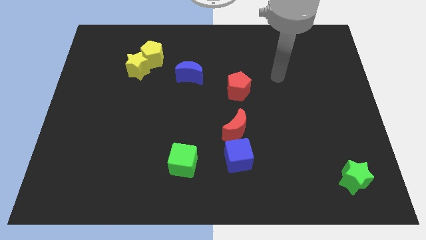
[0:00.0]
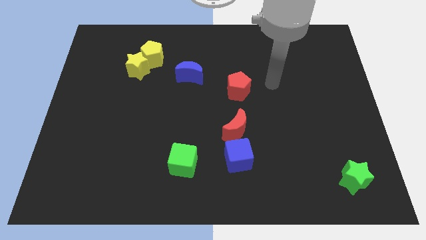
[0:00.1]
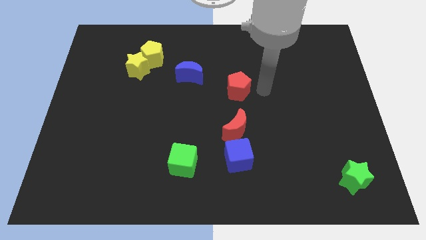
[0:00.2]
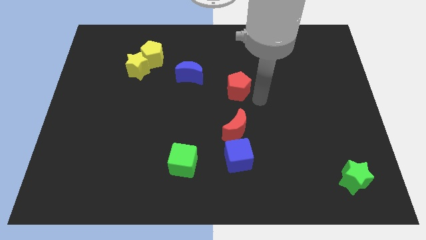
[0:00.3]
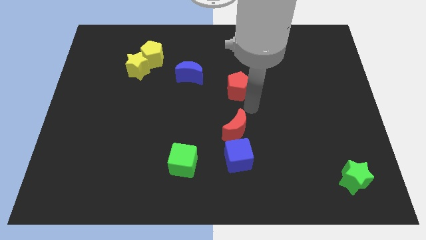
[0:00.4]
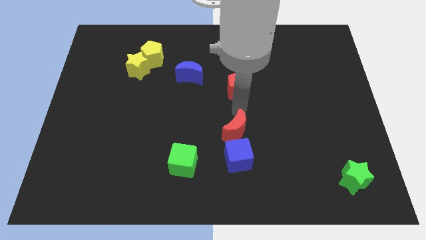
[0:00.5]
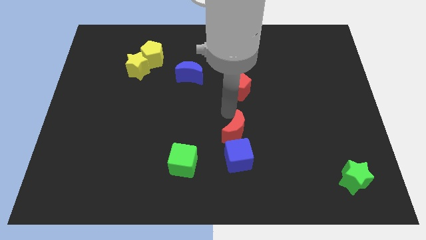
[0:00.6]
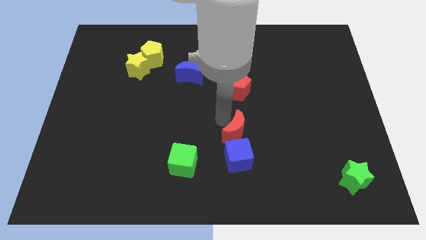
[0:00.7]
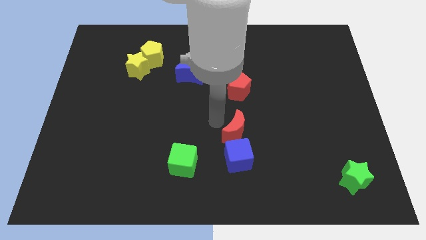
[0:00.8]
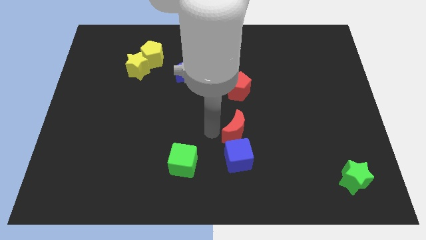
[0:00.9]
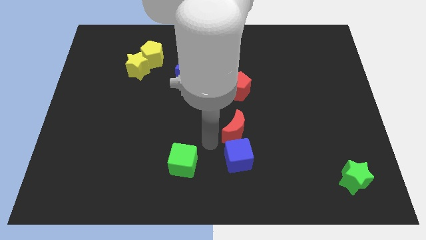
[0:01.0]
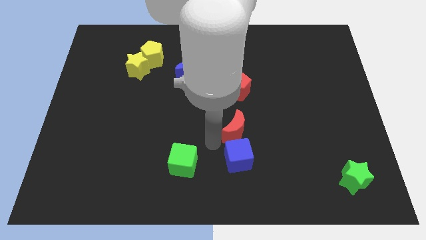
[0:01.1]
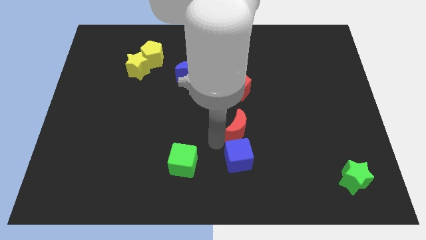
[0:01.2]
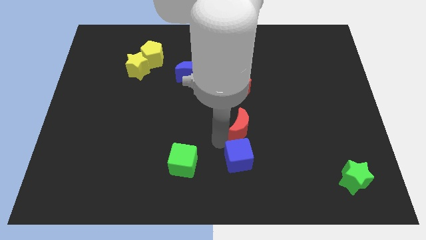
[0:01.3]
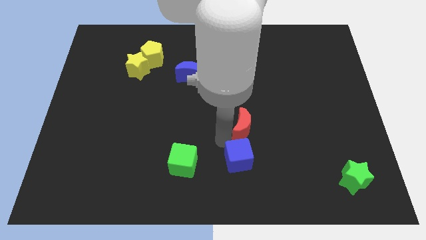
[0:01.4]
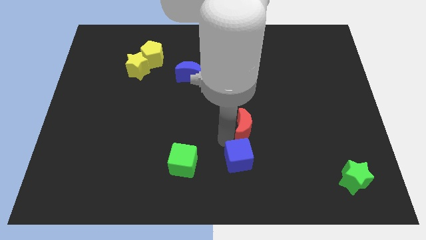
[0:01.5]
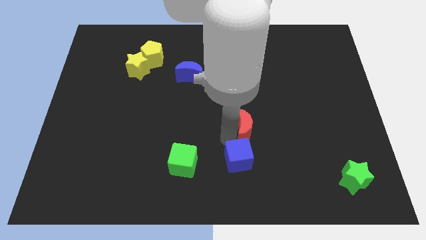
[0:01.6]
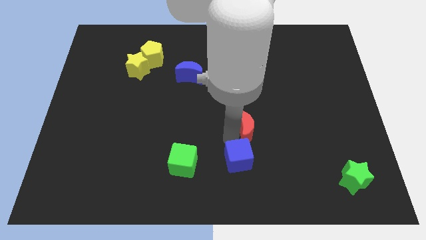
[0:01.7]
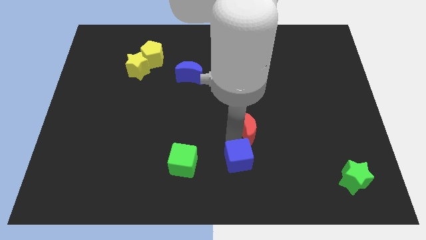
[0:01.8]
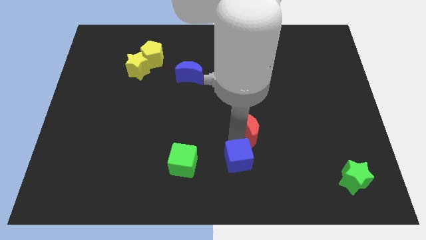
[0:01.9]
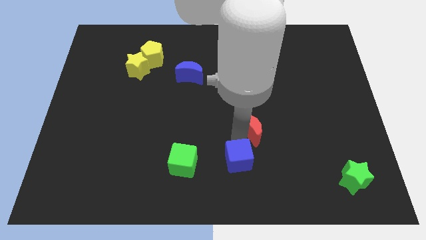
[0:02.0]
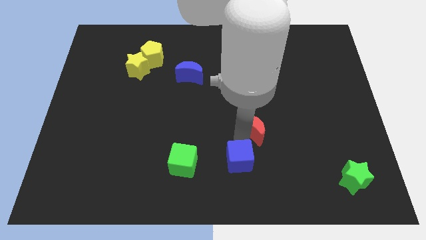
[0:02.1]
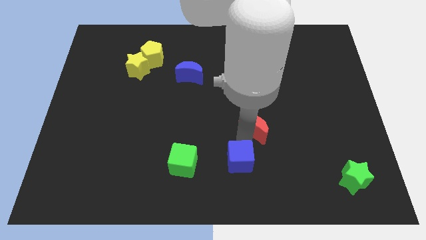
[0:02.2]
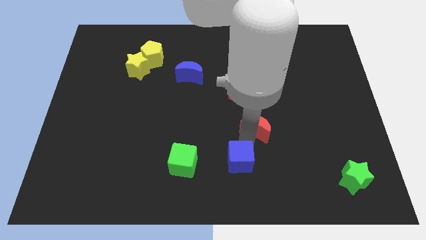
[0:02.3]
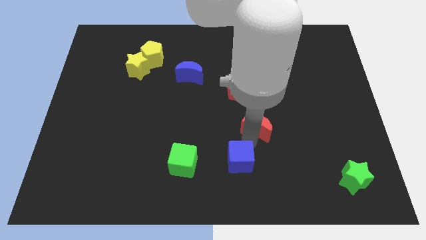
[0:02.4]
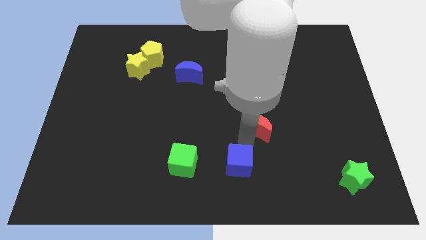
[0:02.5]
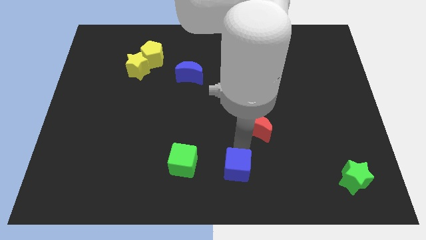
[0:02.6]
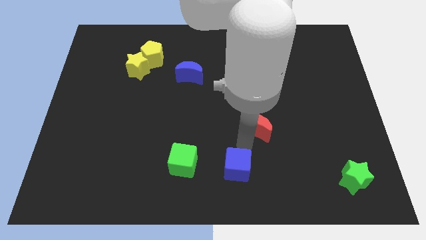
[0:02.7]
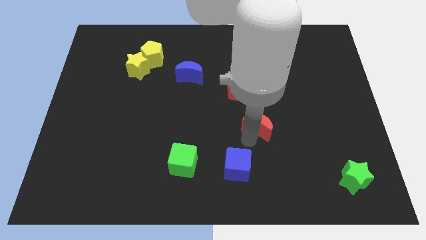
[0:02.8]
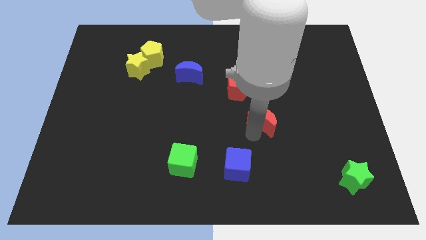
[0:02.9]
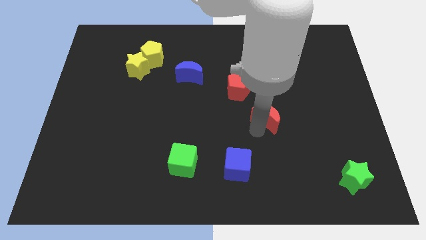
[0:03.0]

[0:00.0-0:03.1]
move the red moon slightly up and right

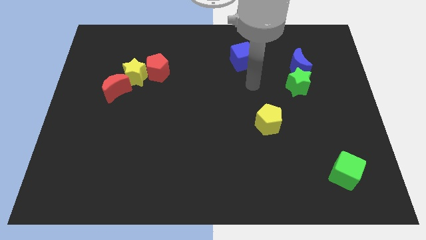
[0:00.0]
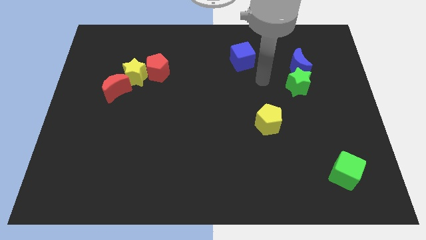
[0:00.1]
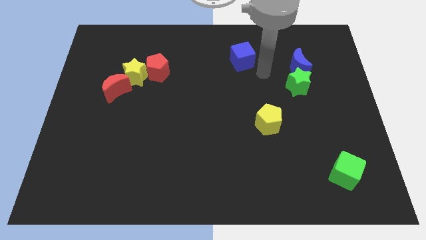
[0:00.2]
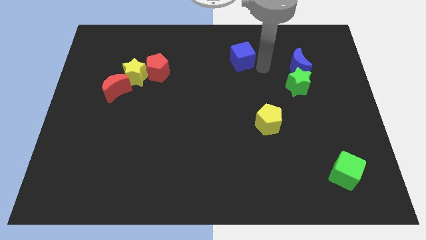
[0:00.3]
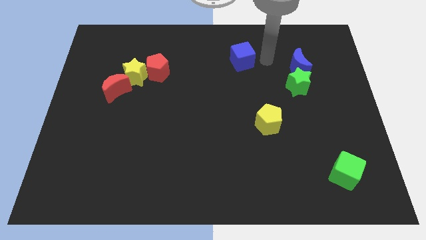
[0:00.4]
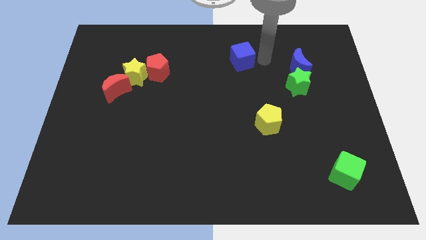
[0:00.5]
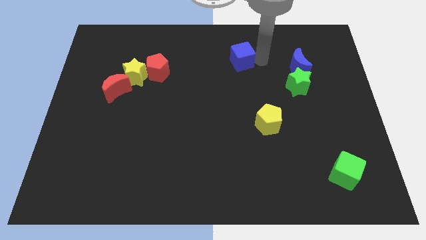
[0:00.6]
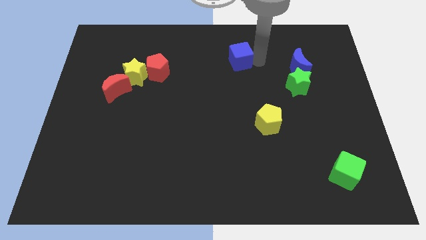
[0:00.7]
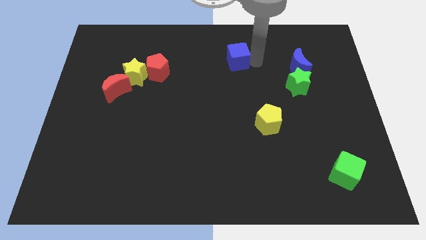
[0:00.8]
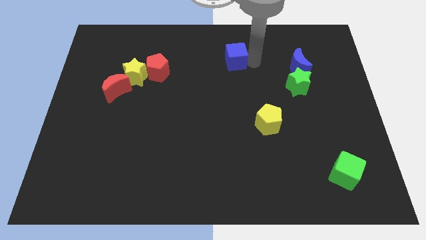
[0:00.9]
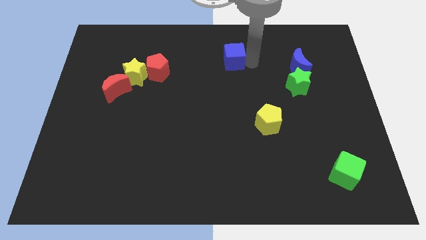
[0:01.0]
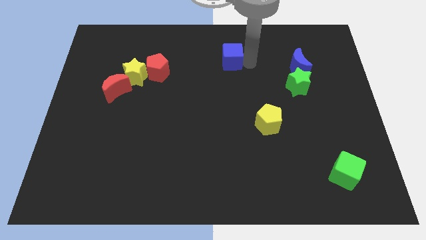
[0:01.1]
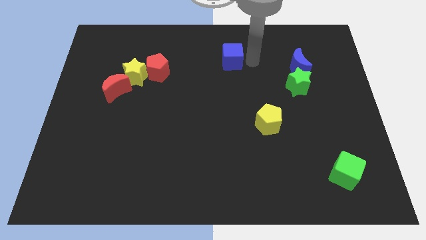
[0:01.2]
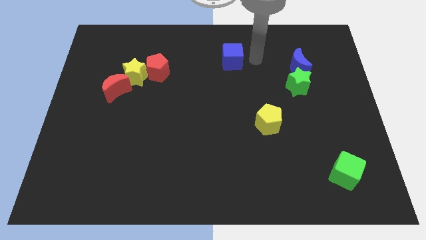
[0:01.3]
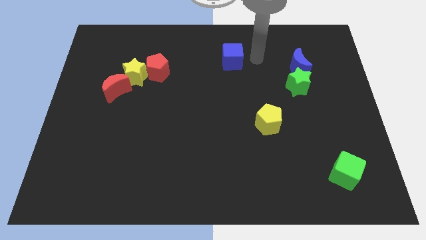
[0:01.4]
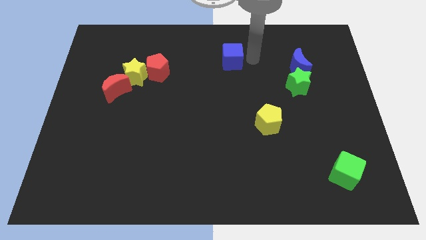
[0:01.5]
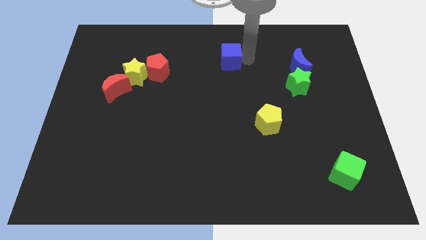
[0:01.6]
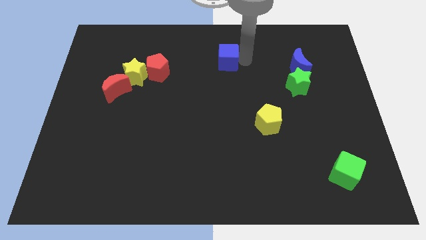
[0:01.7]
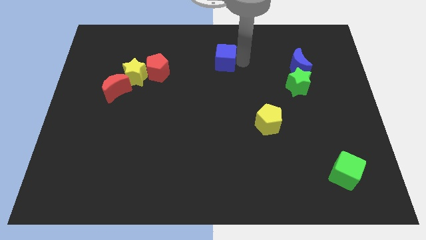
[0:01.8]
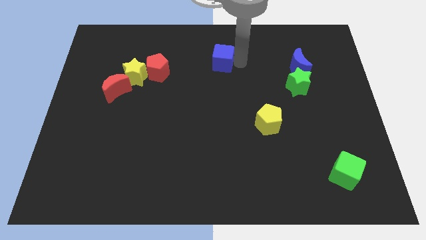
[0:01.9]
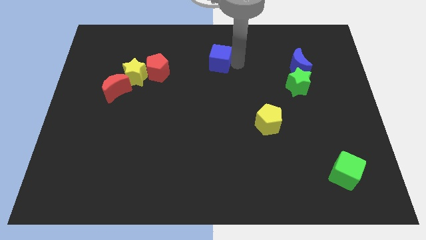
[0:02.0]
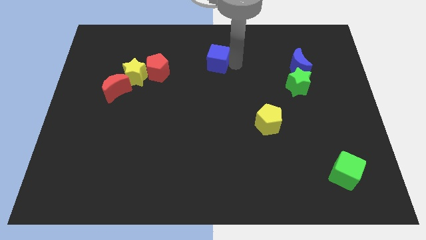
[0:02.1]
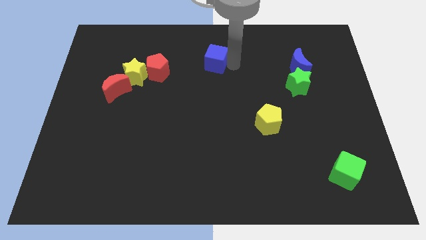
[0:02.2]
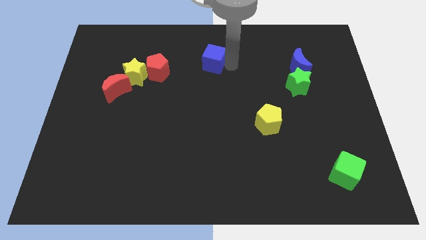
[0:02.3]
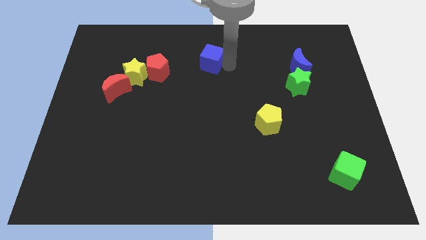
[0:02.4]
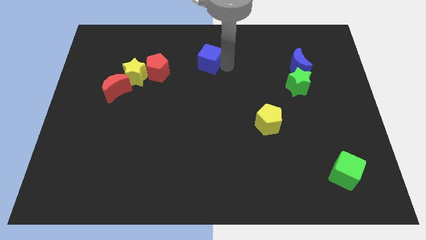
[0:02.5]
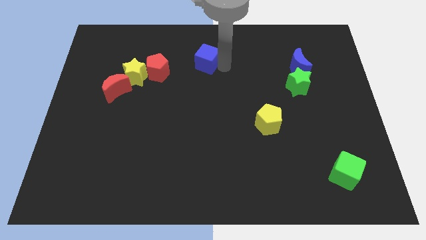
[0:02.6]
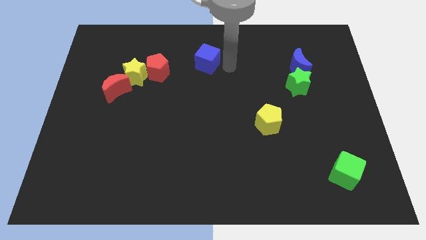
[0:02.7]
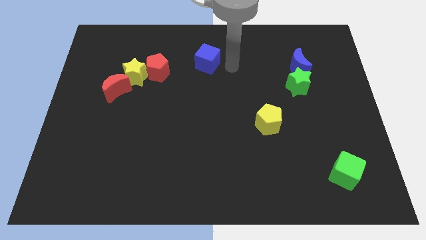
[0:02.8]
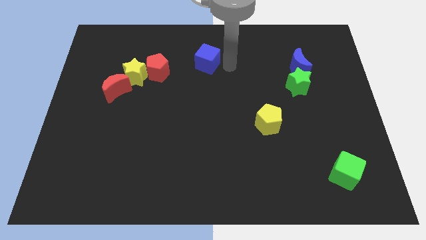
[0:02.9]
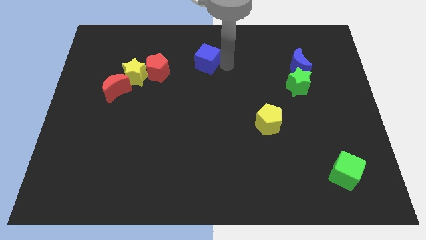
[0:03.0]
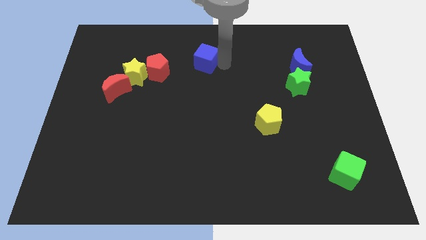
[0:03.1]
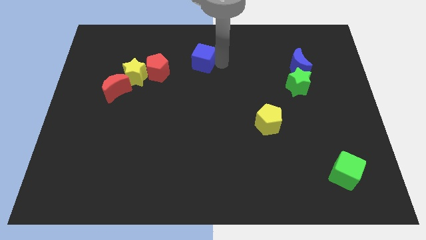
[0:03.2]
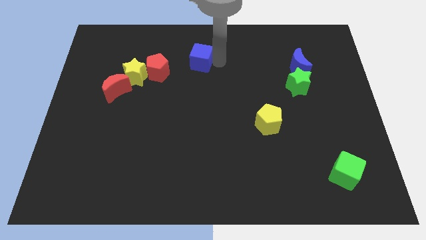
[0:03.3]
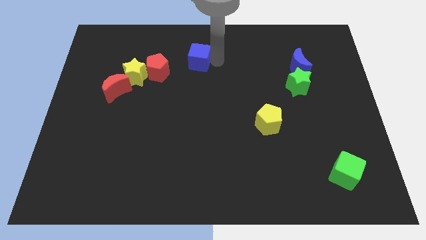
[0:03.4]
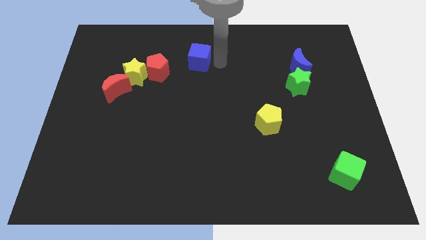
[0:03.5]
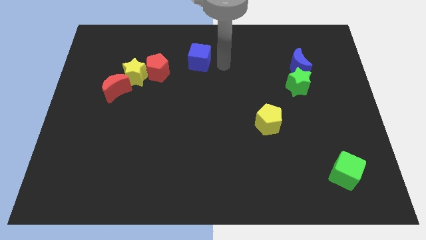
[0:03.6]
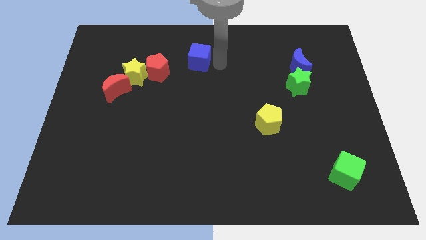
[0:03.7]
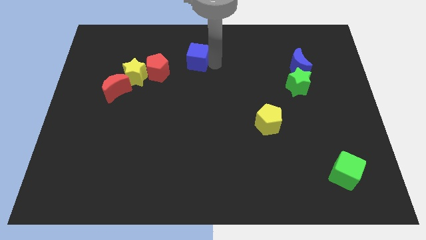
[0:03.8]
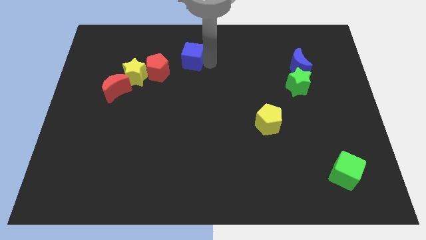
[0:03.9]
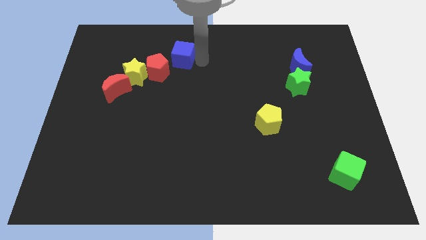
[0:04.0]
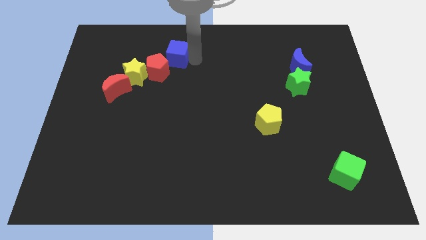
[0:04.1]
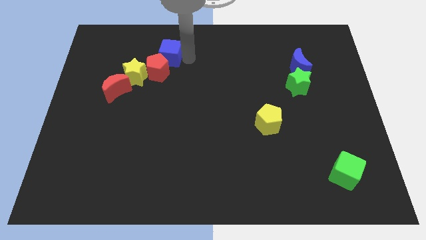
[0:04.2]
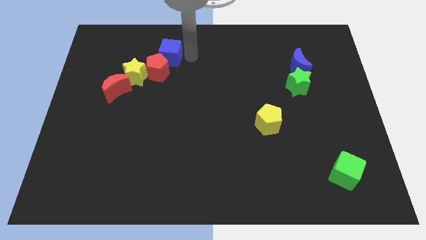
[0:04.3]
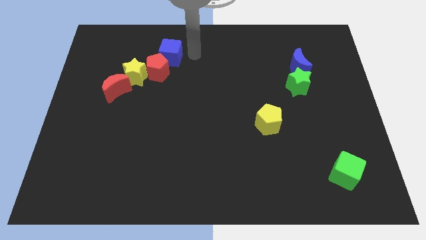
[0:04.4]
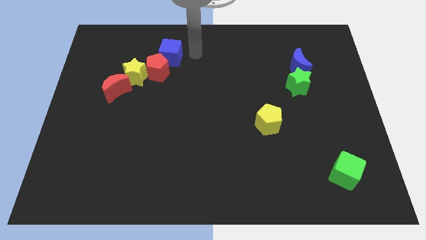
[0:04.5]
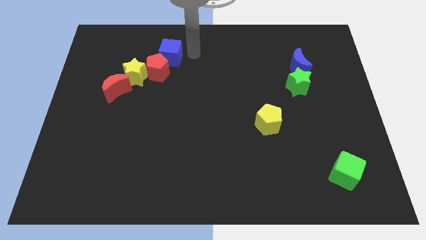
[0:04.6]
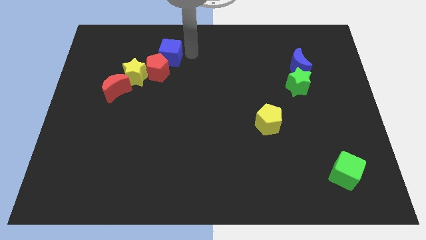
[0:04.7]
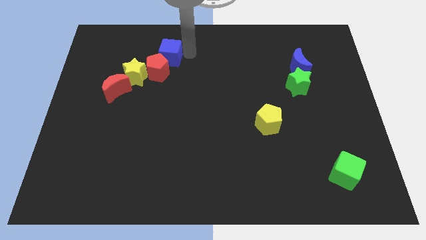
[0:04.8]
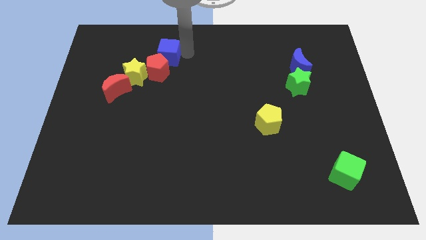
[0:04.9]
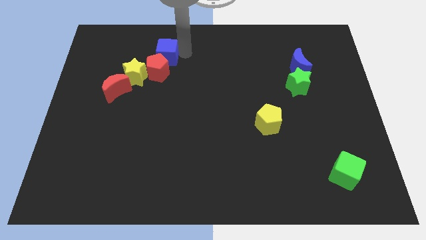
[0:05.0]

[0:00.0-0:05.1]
slide the blue cube left

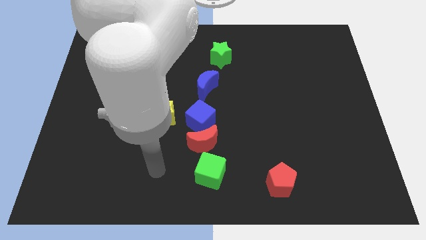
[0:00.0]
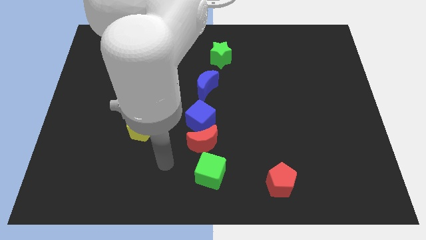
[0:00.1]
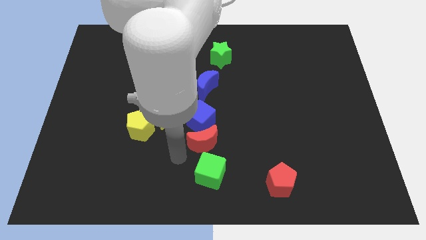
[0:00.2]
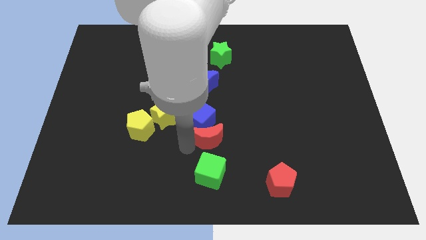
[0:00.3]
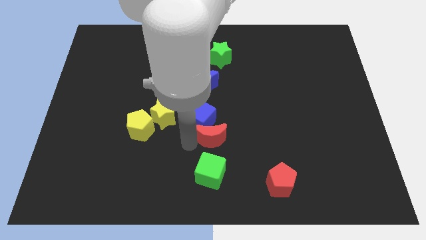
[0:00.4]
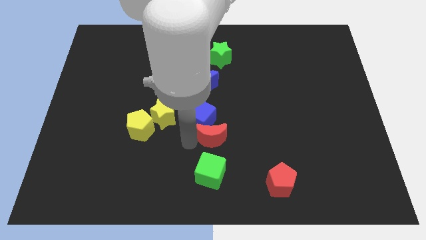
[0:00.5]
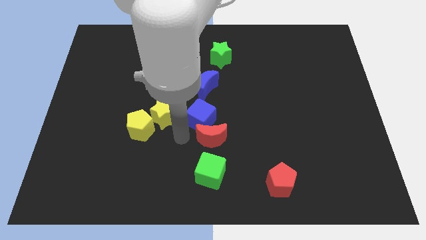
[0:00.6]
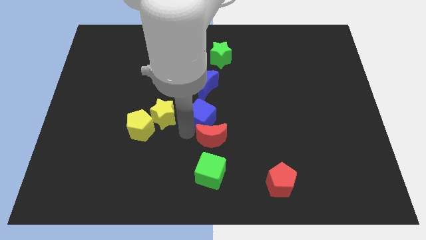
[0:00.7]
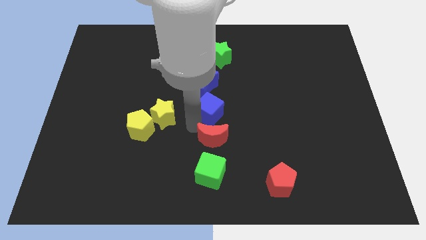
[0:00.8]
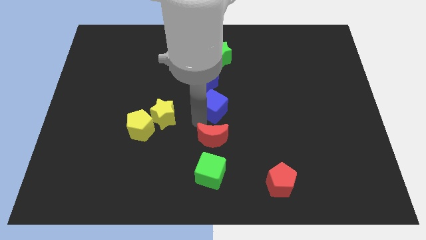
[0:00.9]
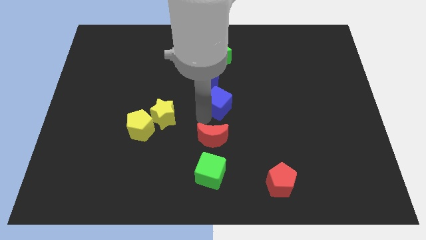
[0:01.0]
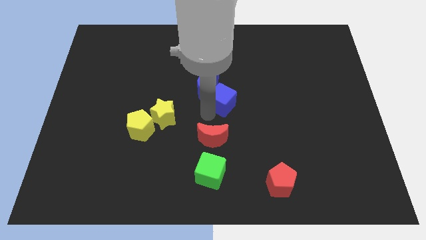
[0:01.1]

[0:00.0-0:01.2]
move the blue cube a little up and to the right diagonally
